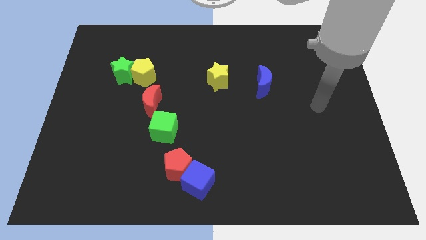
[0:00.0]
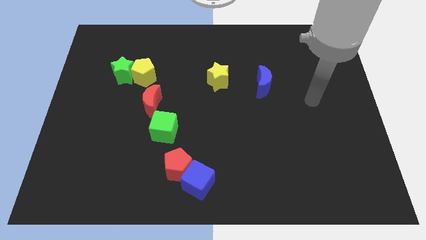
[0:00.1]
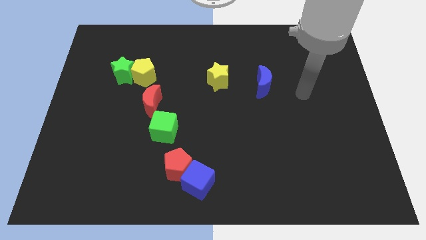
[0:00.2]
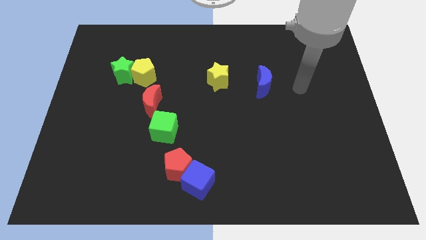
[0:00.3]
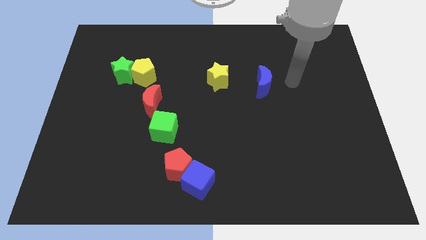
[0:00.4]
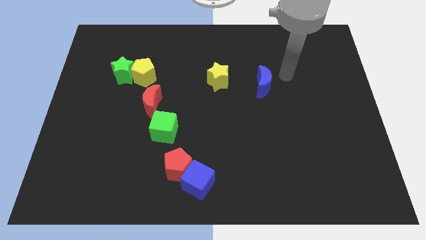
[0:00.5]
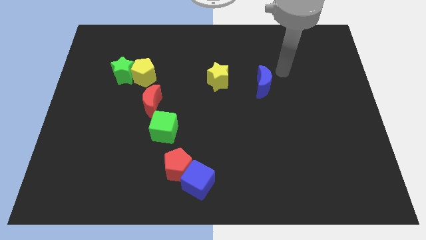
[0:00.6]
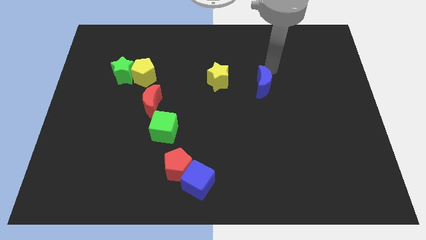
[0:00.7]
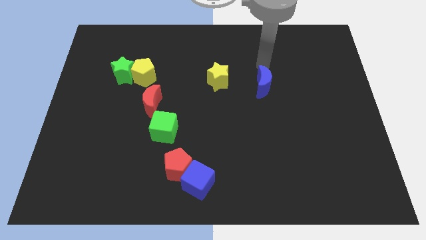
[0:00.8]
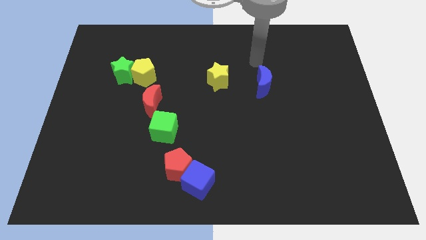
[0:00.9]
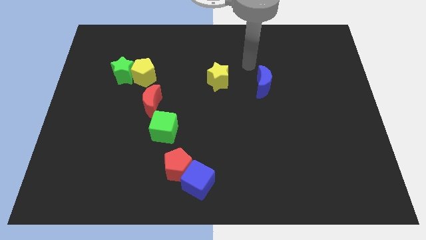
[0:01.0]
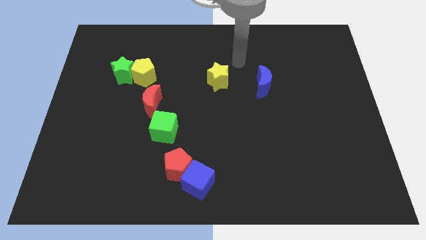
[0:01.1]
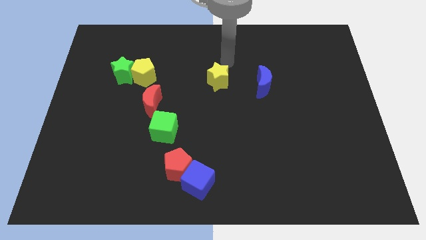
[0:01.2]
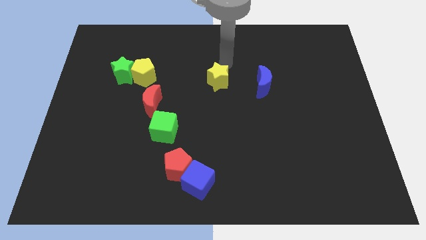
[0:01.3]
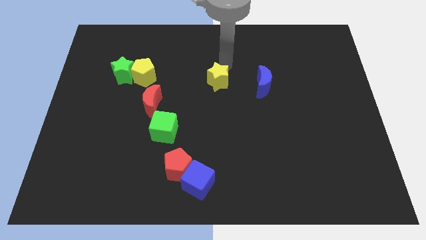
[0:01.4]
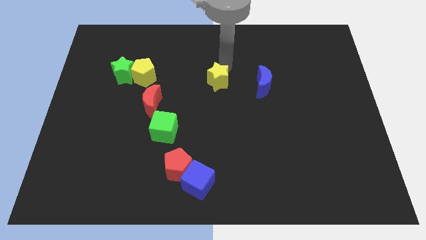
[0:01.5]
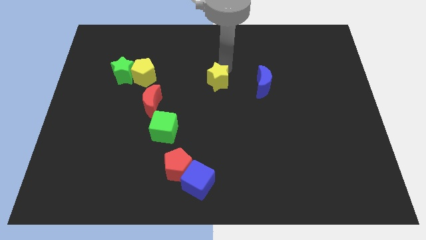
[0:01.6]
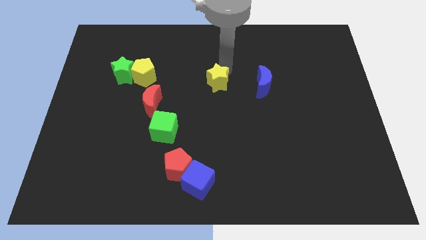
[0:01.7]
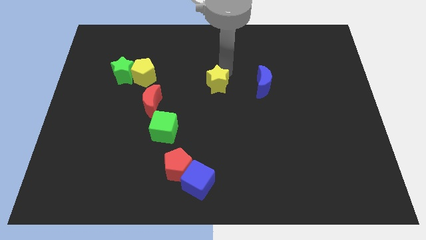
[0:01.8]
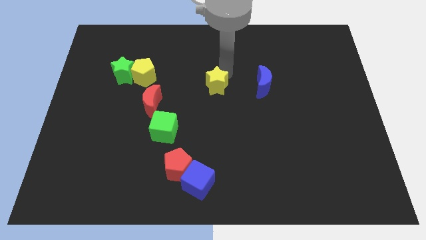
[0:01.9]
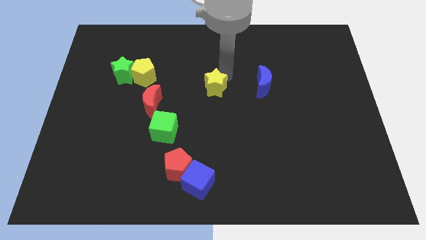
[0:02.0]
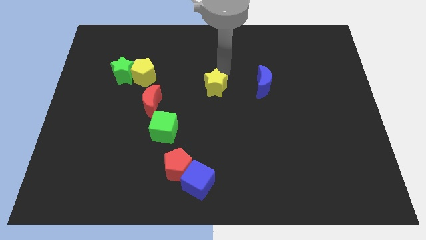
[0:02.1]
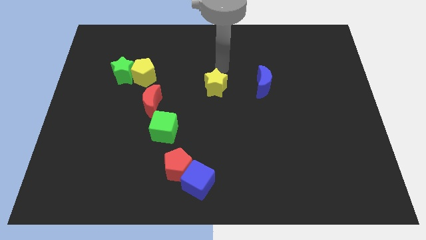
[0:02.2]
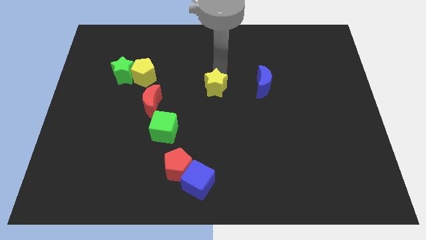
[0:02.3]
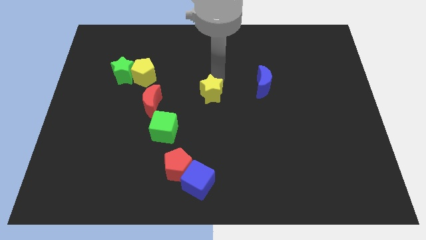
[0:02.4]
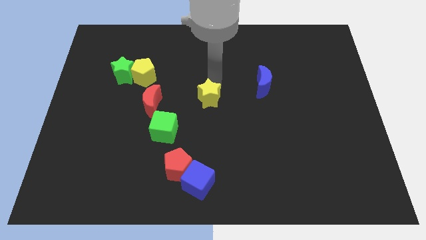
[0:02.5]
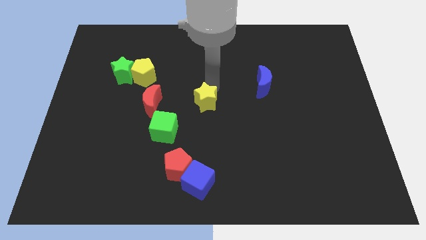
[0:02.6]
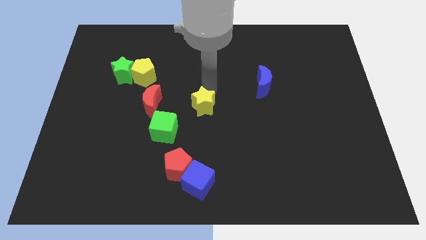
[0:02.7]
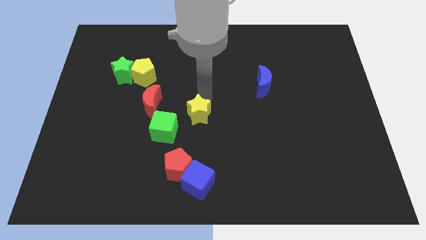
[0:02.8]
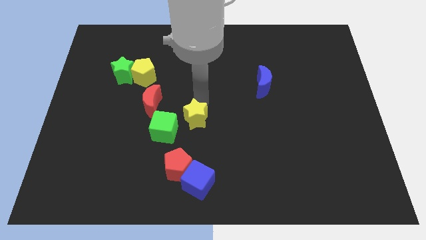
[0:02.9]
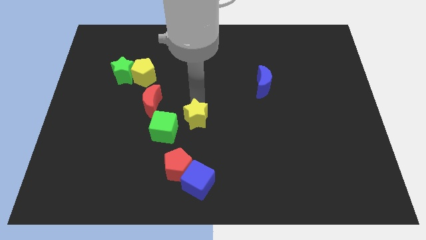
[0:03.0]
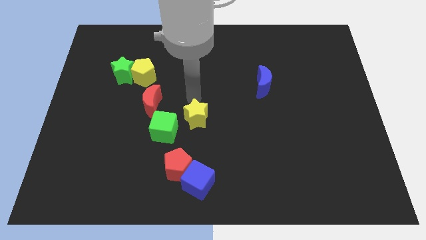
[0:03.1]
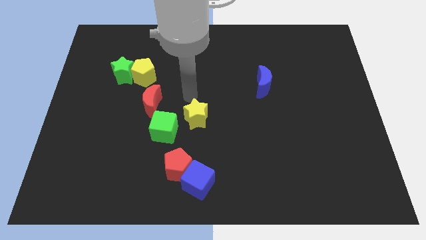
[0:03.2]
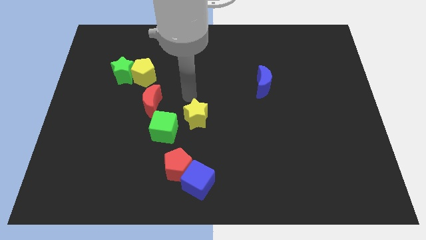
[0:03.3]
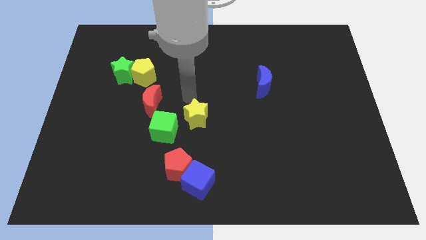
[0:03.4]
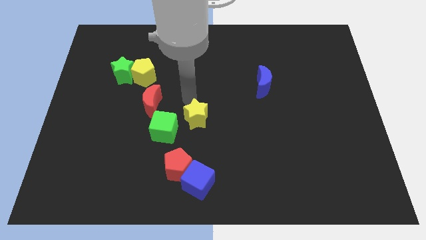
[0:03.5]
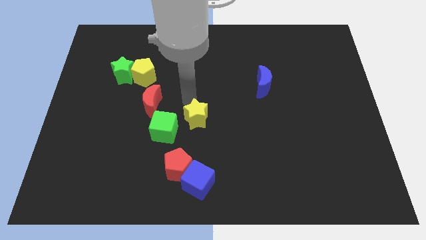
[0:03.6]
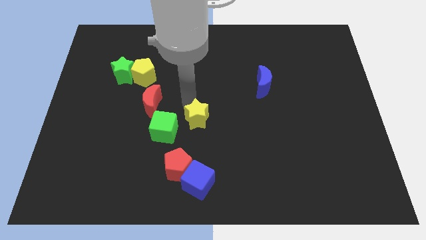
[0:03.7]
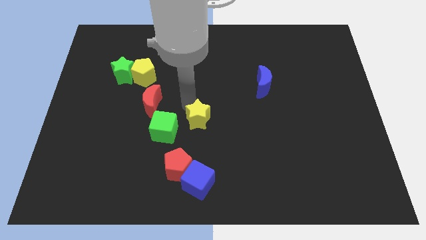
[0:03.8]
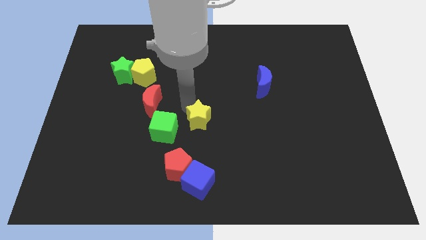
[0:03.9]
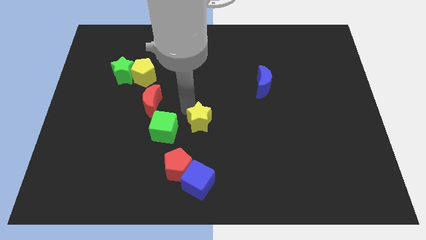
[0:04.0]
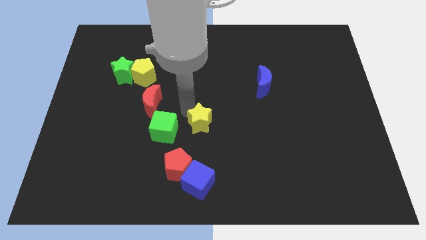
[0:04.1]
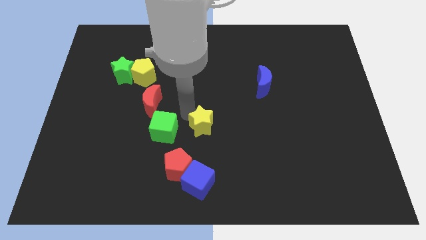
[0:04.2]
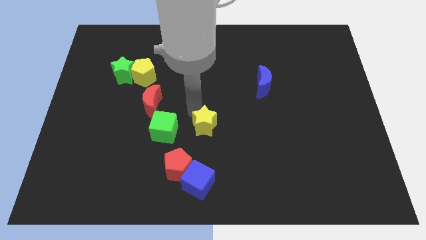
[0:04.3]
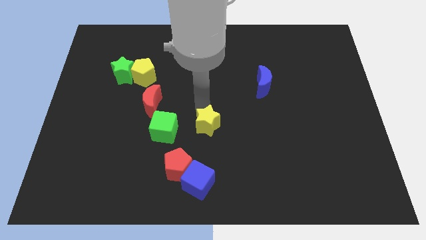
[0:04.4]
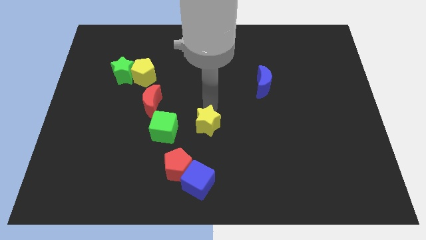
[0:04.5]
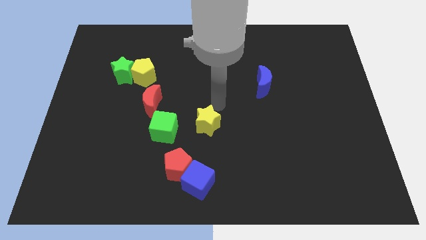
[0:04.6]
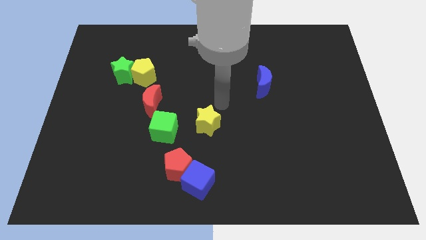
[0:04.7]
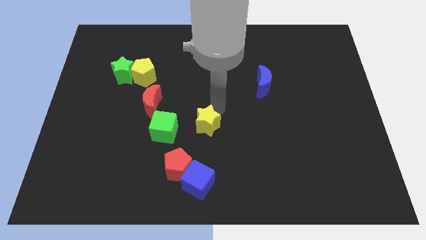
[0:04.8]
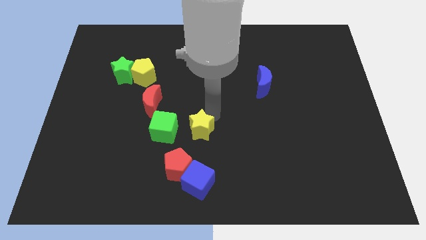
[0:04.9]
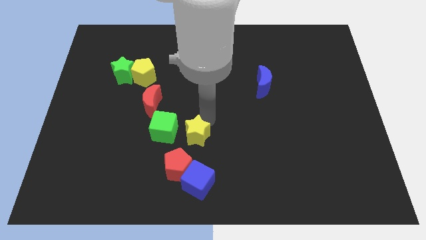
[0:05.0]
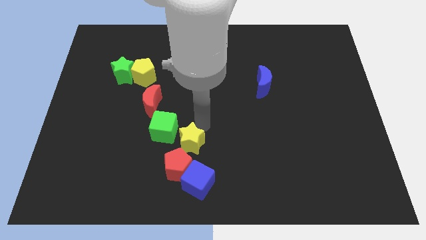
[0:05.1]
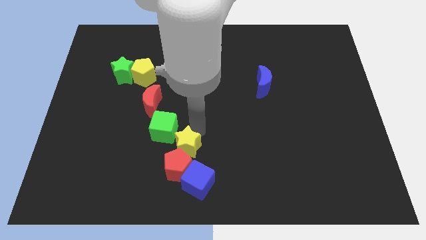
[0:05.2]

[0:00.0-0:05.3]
move the yellow star towards the red pentagon

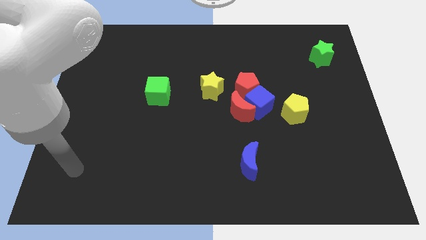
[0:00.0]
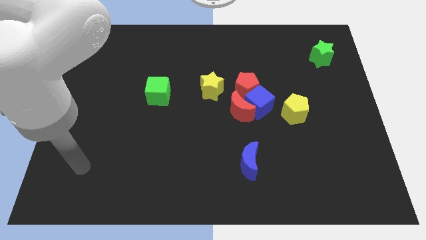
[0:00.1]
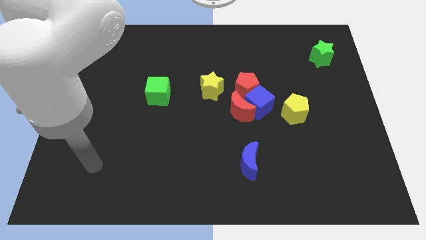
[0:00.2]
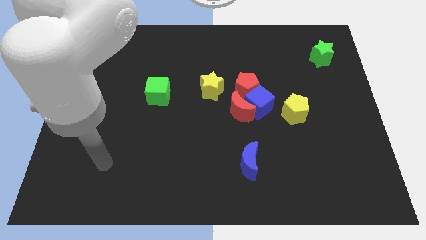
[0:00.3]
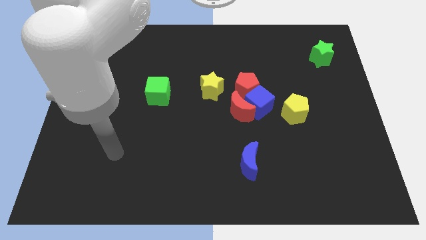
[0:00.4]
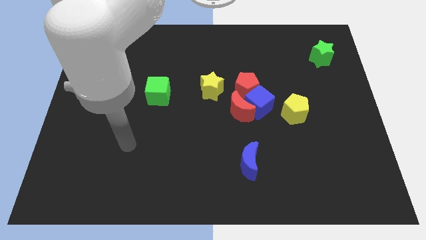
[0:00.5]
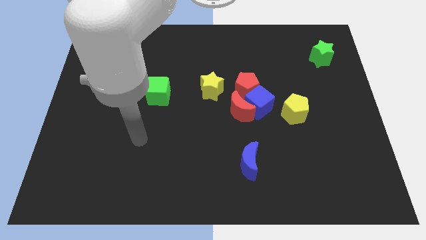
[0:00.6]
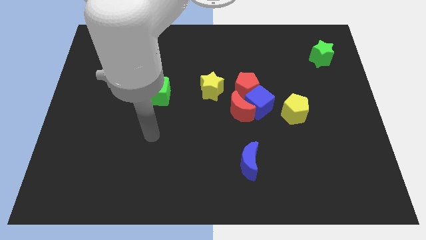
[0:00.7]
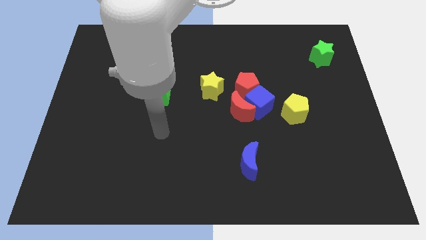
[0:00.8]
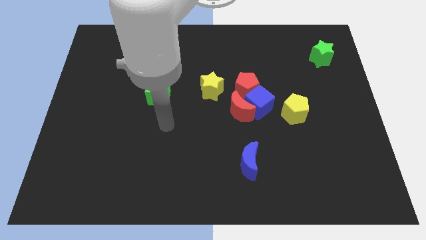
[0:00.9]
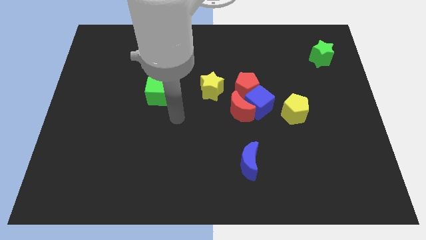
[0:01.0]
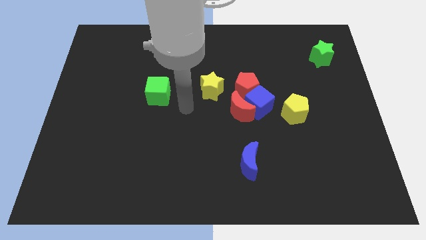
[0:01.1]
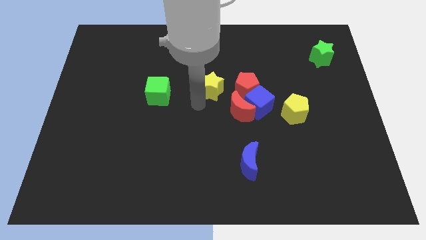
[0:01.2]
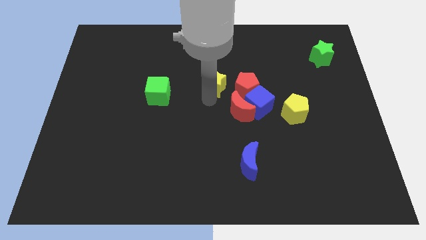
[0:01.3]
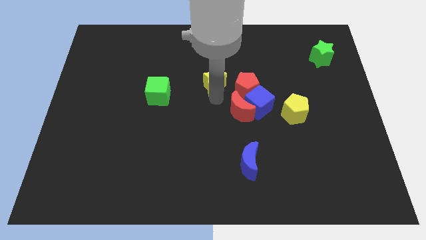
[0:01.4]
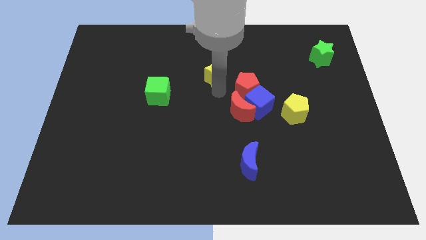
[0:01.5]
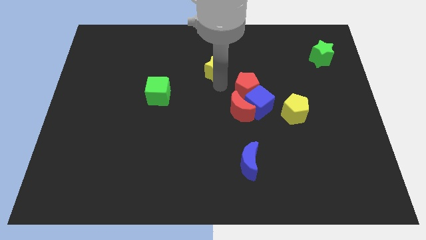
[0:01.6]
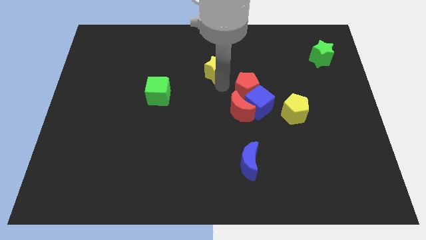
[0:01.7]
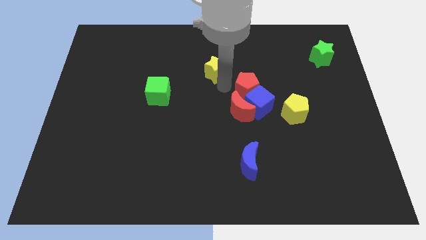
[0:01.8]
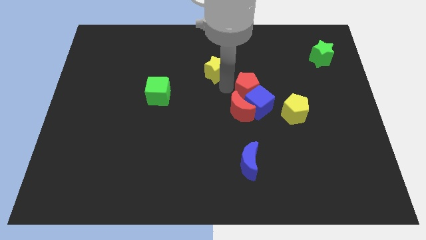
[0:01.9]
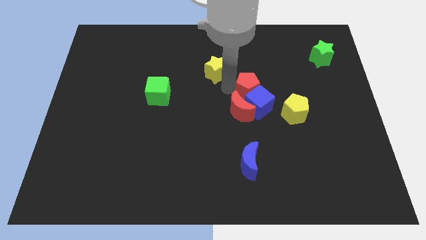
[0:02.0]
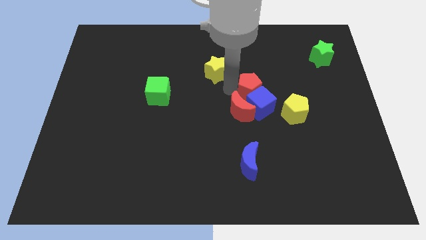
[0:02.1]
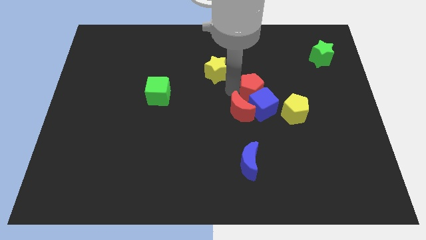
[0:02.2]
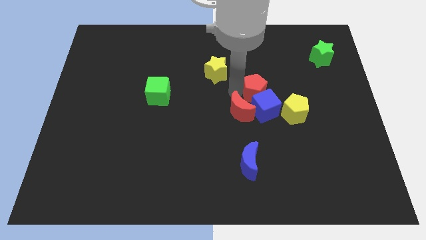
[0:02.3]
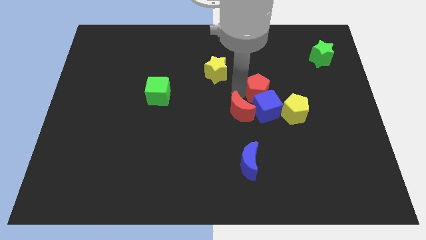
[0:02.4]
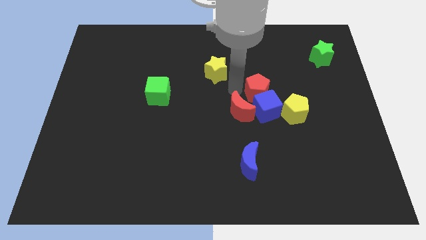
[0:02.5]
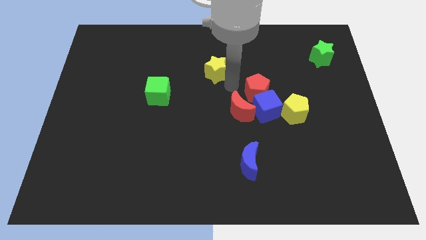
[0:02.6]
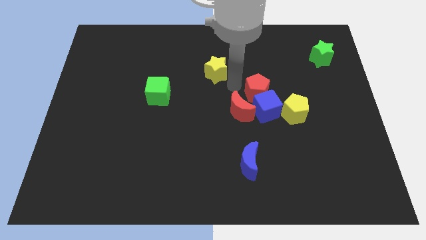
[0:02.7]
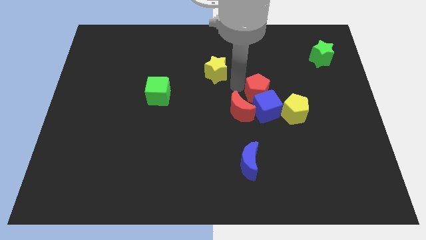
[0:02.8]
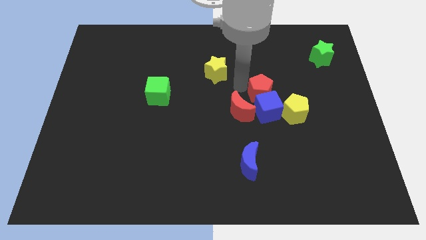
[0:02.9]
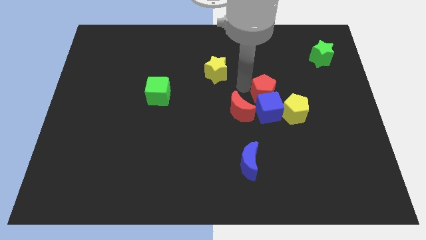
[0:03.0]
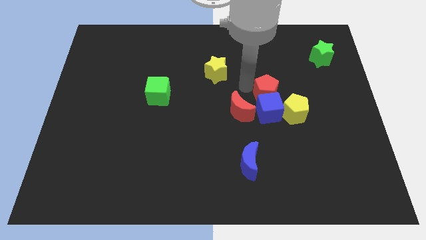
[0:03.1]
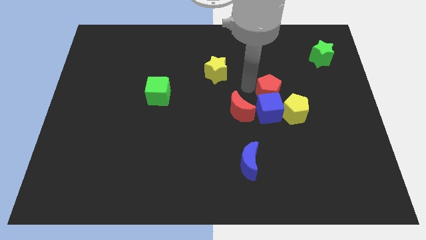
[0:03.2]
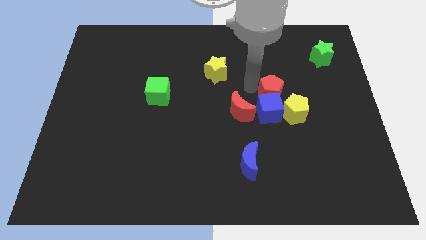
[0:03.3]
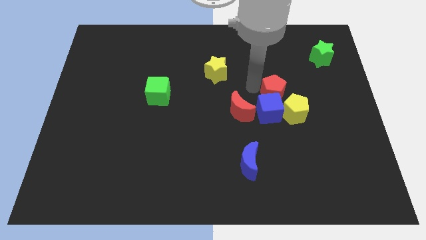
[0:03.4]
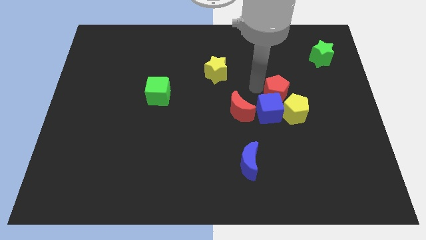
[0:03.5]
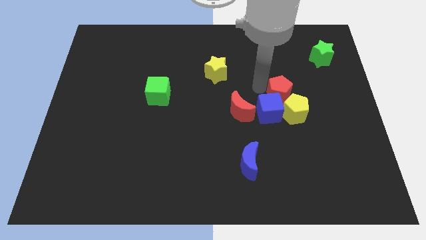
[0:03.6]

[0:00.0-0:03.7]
push the red pentagon to the yellow pentagon
